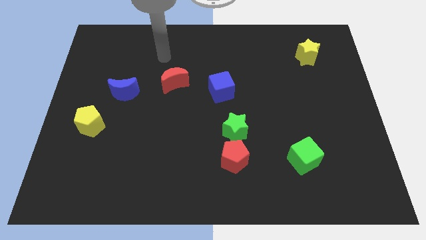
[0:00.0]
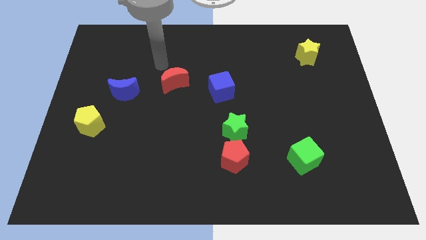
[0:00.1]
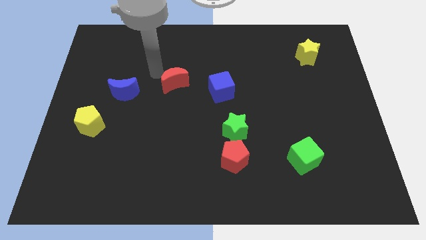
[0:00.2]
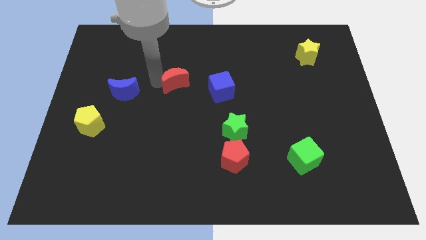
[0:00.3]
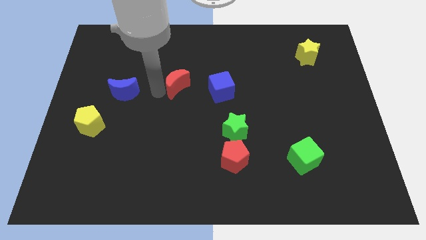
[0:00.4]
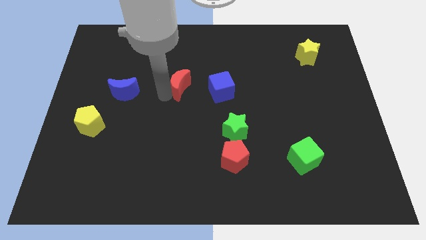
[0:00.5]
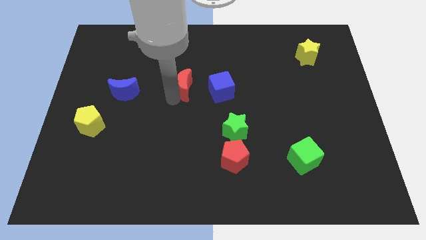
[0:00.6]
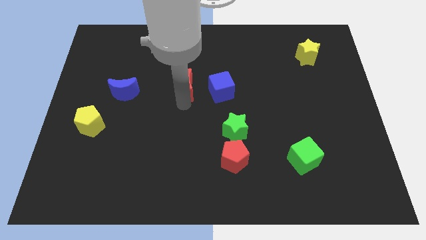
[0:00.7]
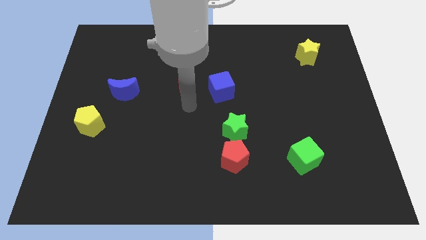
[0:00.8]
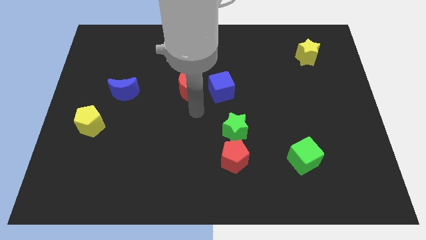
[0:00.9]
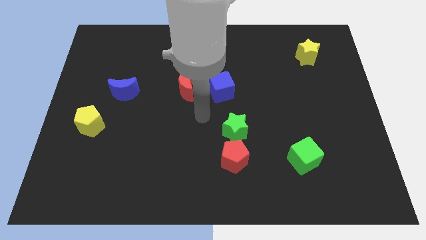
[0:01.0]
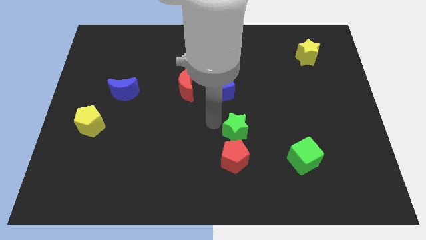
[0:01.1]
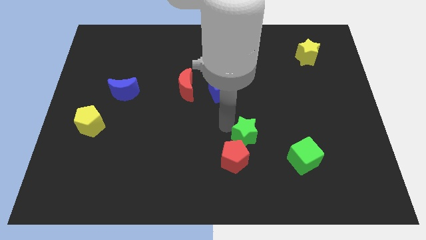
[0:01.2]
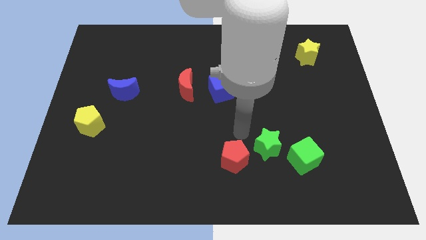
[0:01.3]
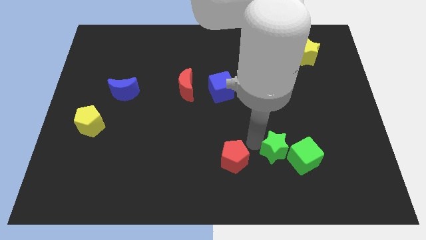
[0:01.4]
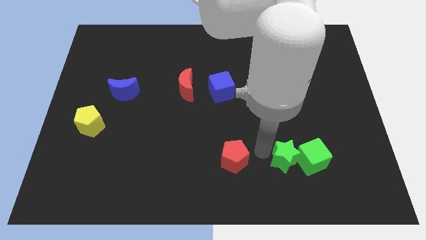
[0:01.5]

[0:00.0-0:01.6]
pull the red pentagon apart from the green star

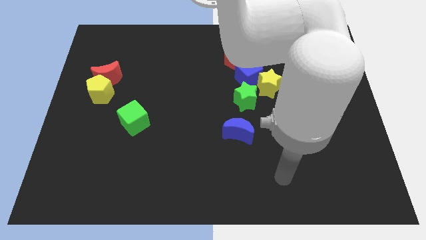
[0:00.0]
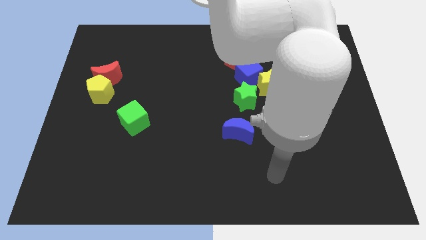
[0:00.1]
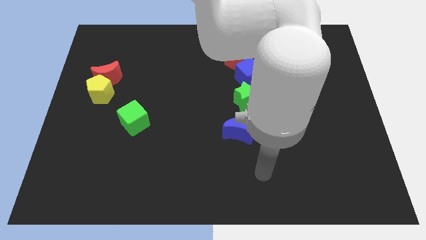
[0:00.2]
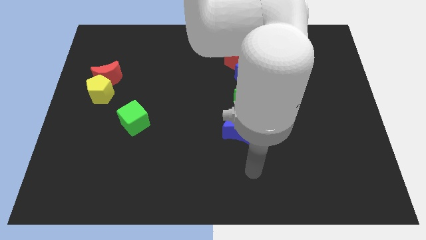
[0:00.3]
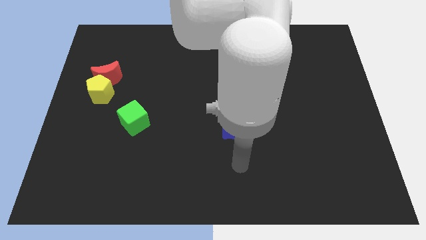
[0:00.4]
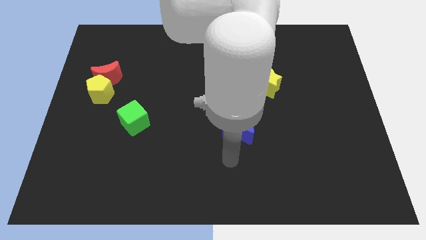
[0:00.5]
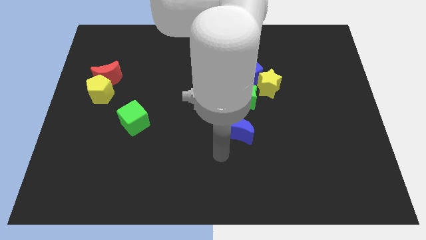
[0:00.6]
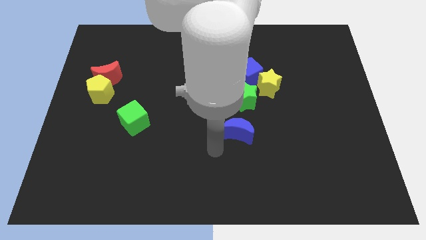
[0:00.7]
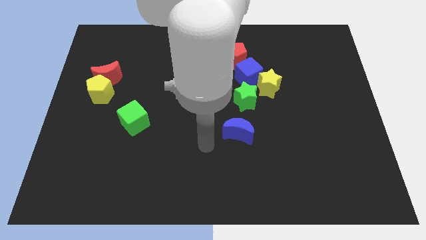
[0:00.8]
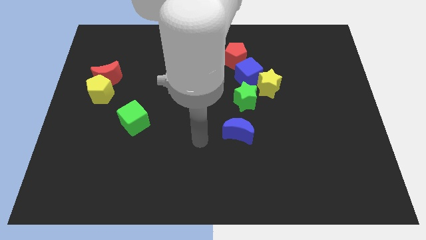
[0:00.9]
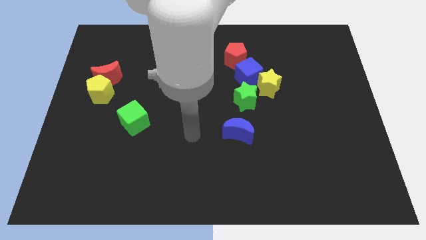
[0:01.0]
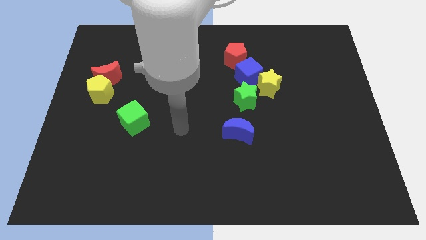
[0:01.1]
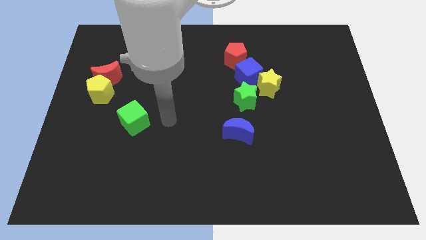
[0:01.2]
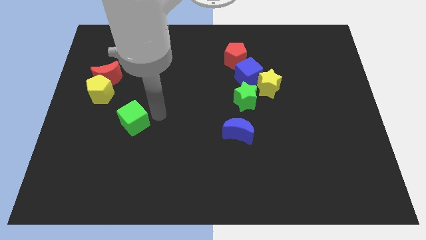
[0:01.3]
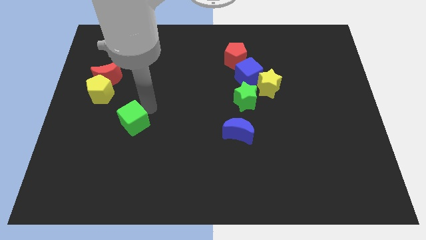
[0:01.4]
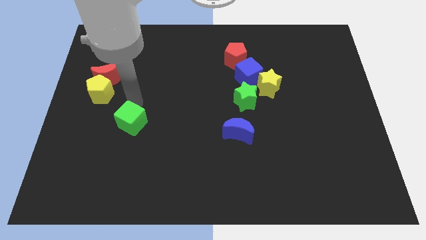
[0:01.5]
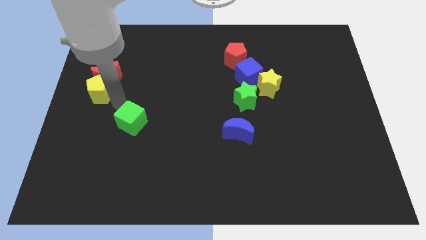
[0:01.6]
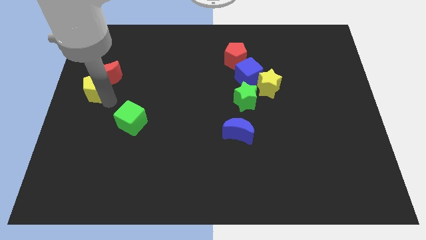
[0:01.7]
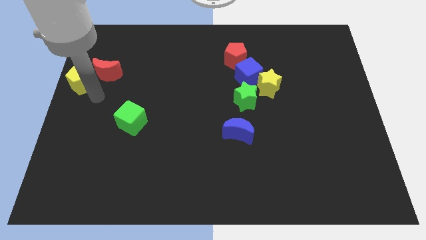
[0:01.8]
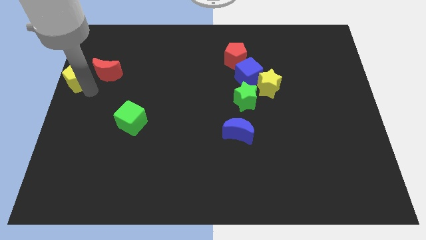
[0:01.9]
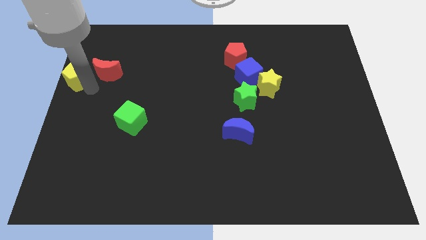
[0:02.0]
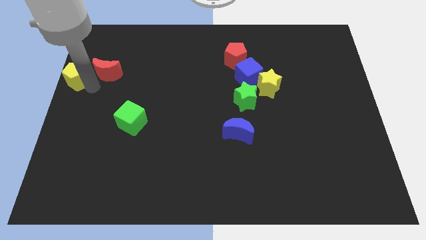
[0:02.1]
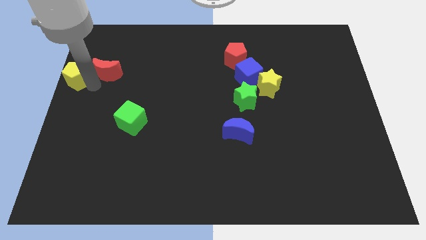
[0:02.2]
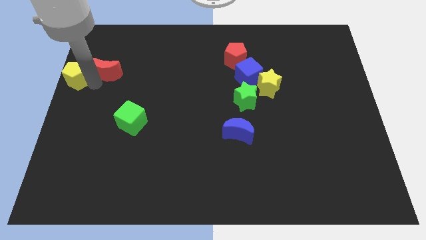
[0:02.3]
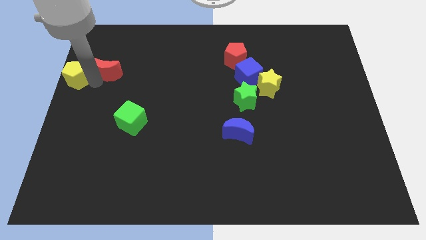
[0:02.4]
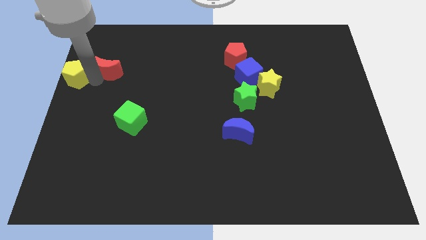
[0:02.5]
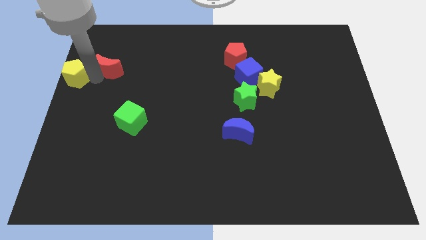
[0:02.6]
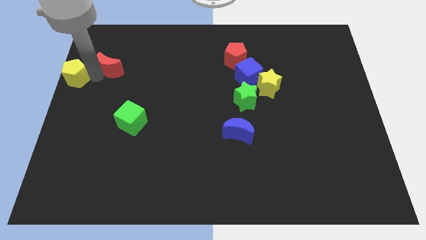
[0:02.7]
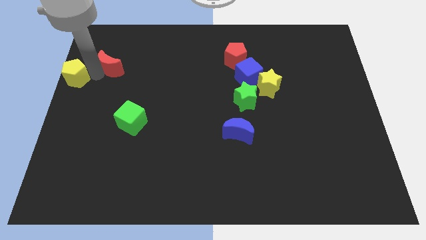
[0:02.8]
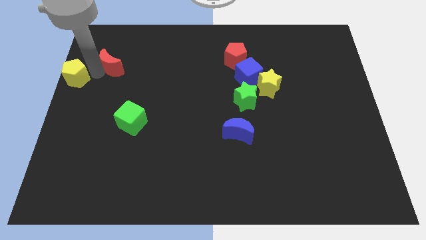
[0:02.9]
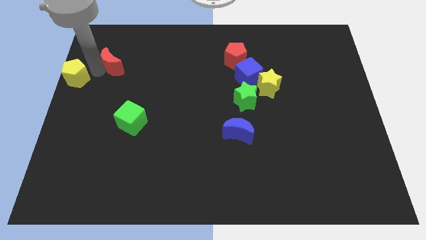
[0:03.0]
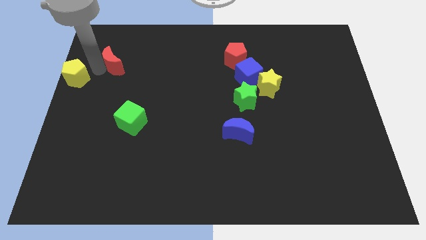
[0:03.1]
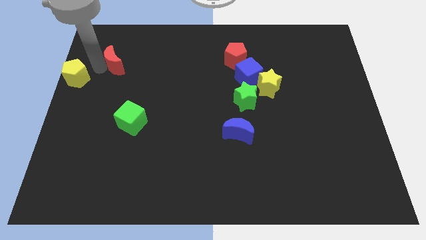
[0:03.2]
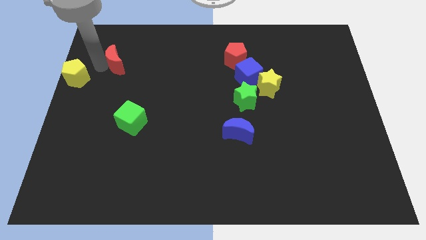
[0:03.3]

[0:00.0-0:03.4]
move the red moon away from the yellow pentagon

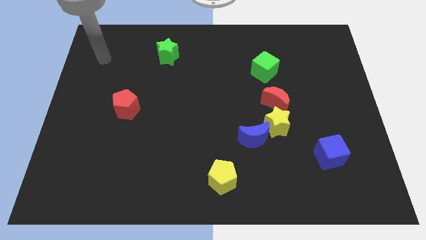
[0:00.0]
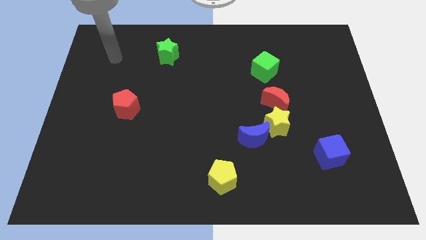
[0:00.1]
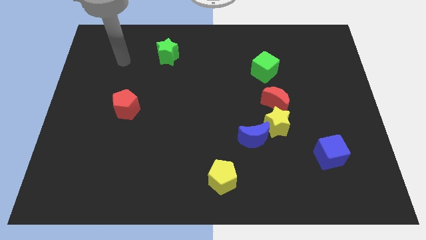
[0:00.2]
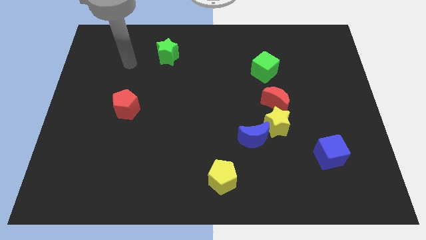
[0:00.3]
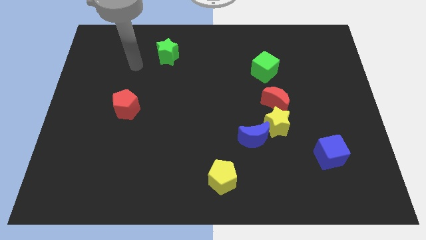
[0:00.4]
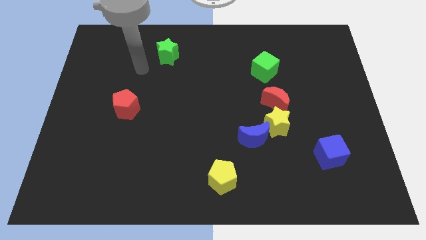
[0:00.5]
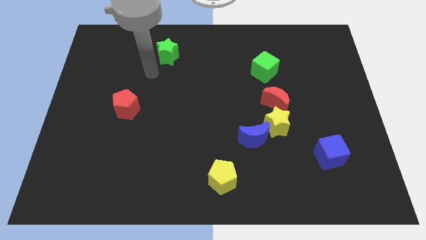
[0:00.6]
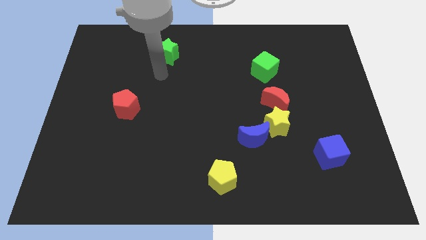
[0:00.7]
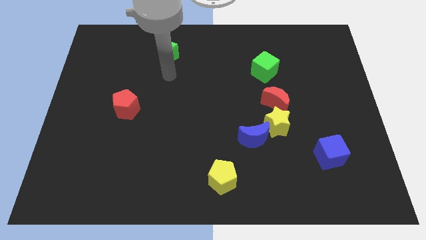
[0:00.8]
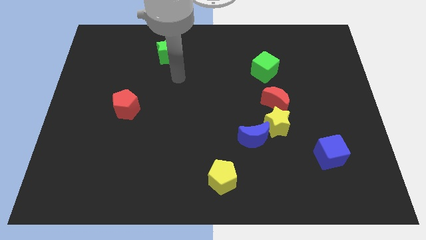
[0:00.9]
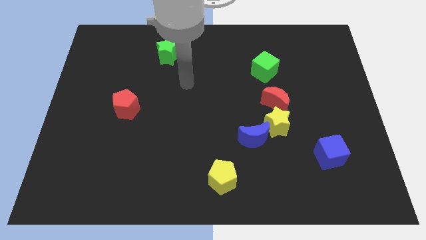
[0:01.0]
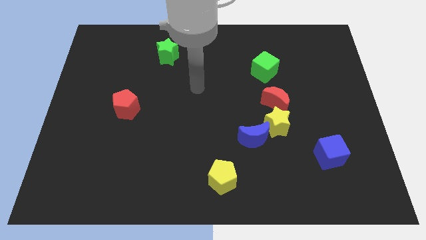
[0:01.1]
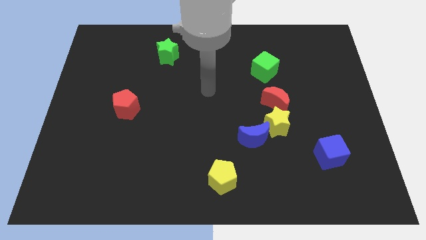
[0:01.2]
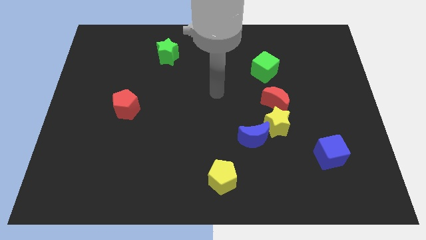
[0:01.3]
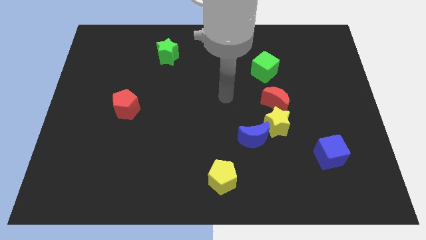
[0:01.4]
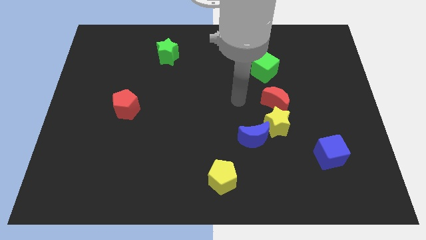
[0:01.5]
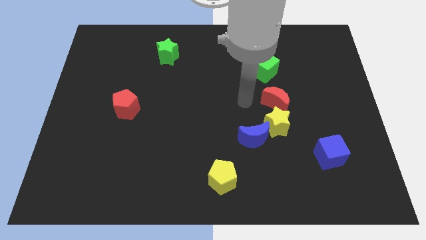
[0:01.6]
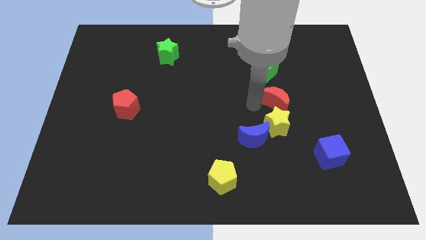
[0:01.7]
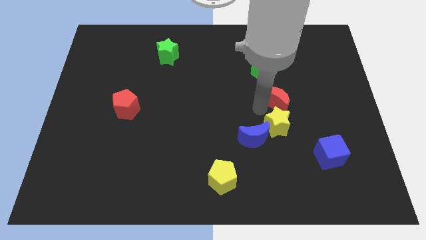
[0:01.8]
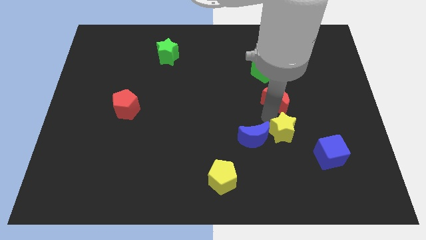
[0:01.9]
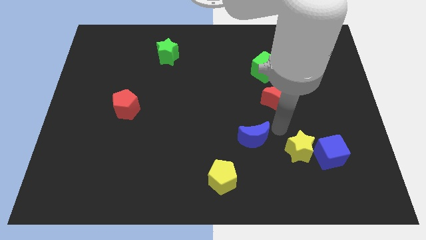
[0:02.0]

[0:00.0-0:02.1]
separate the blue moon from the yellow star

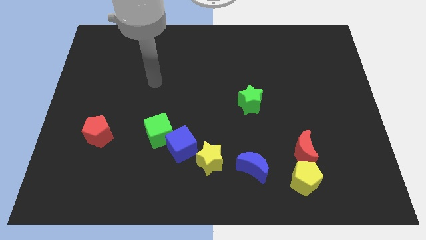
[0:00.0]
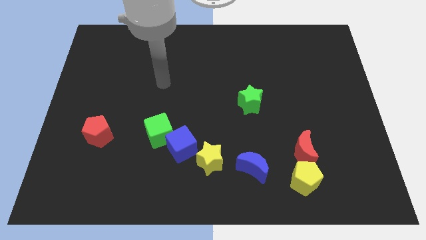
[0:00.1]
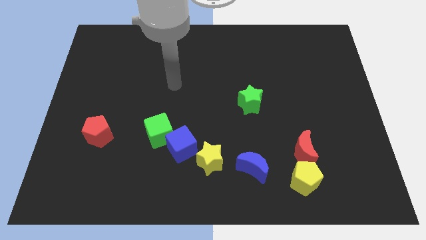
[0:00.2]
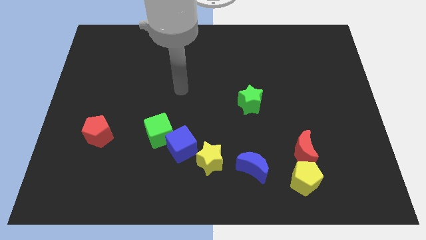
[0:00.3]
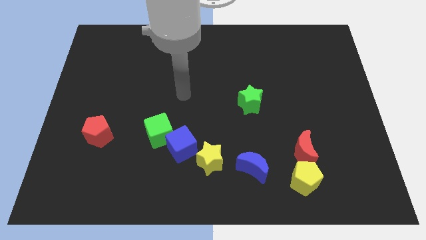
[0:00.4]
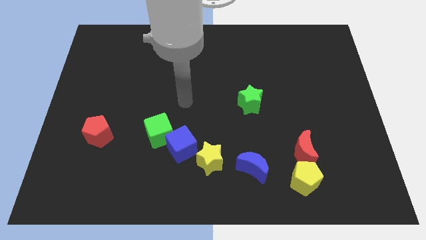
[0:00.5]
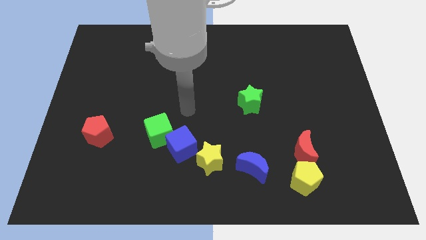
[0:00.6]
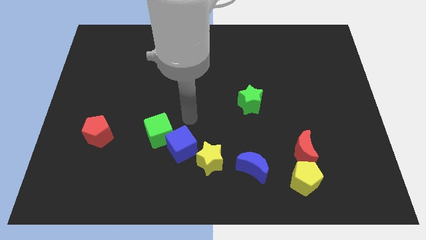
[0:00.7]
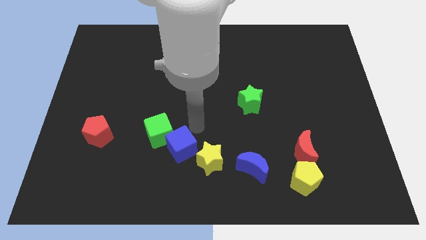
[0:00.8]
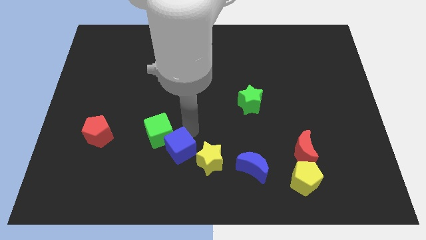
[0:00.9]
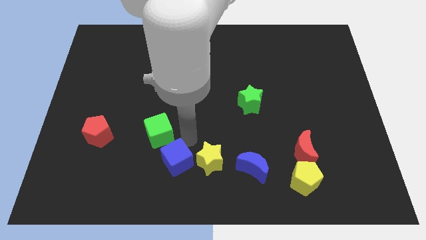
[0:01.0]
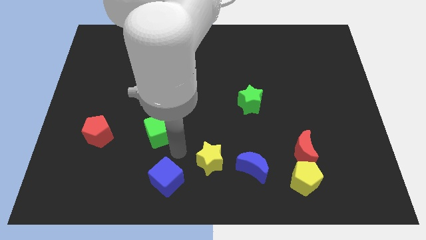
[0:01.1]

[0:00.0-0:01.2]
separate the green cube from the blue cube

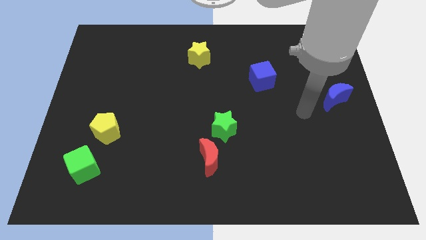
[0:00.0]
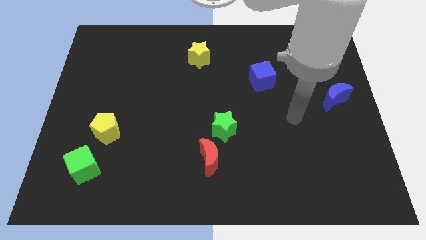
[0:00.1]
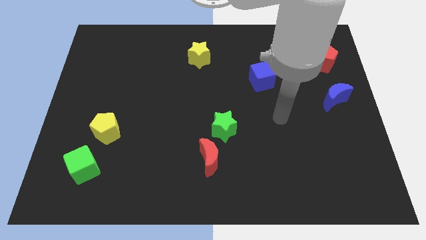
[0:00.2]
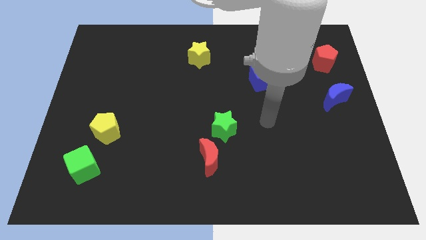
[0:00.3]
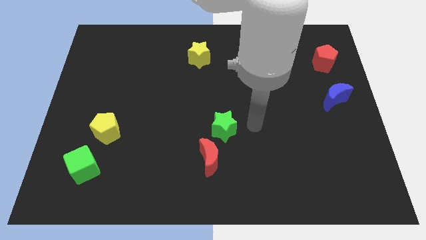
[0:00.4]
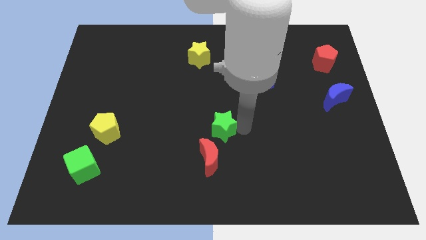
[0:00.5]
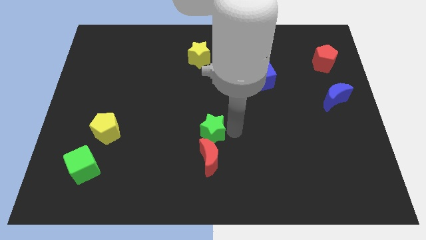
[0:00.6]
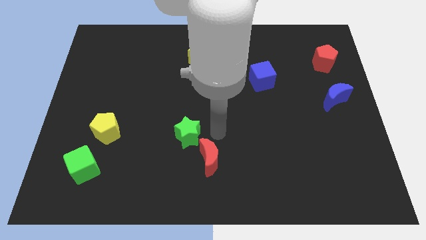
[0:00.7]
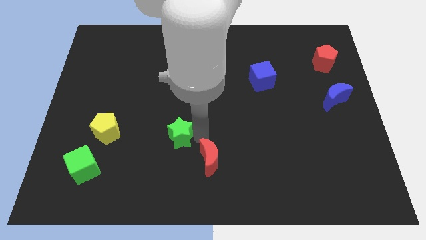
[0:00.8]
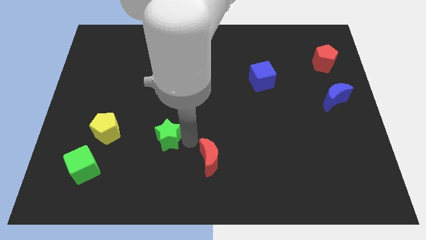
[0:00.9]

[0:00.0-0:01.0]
separate the red moon from the green star
